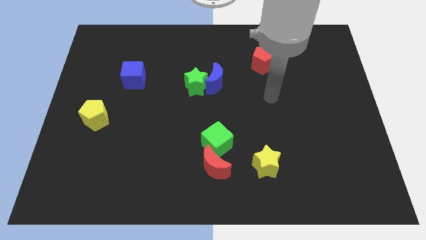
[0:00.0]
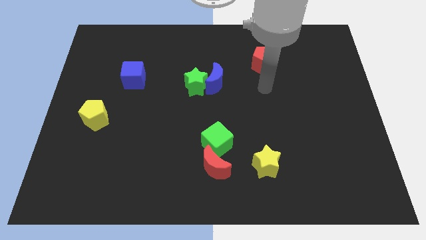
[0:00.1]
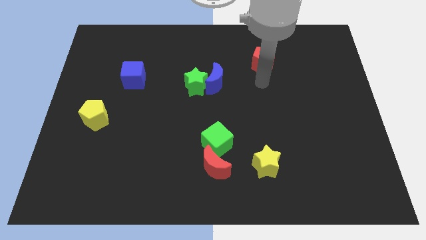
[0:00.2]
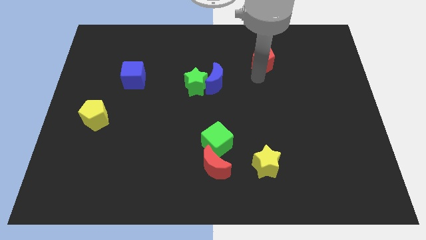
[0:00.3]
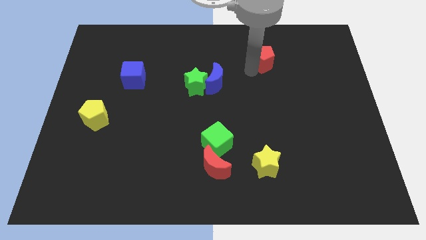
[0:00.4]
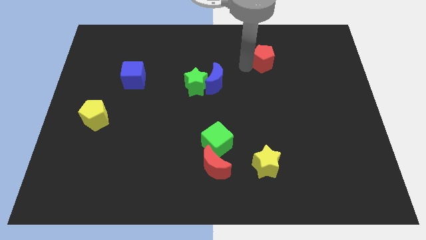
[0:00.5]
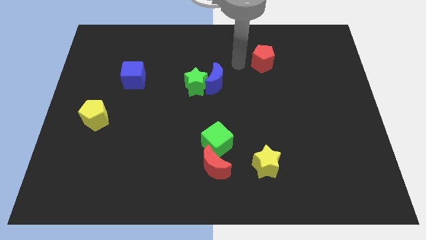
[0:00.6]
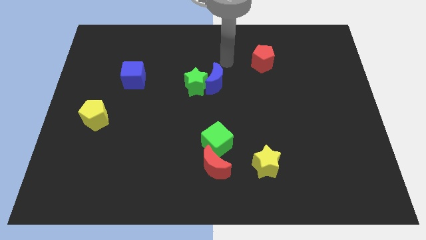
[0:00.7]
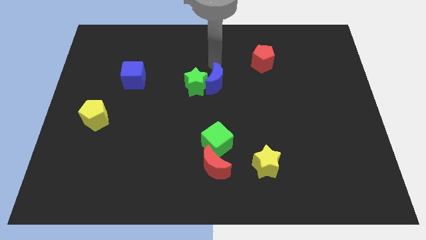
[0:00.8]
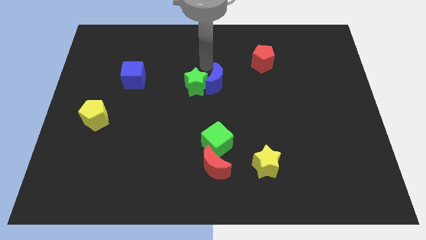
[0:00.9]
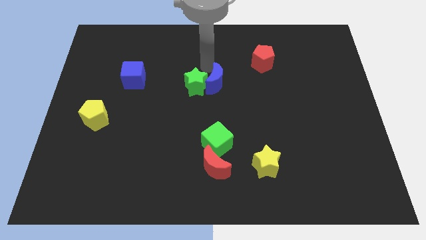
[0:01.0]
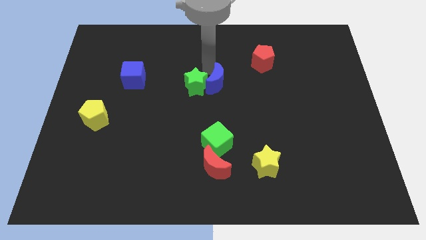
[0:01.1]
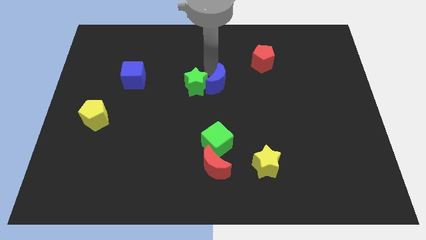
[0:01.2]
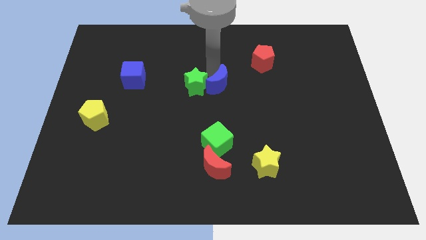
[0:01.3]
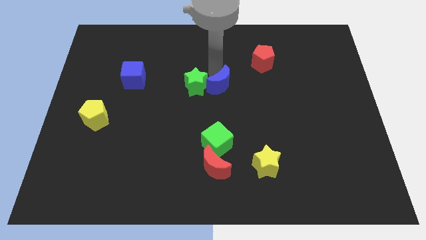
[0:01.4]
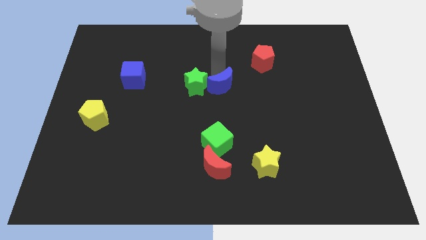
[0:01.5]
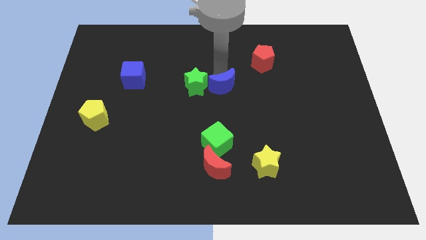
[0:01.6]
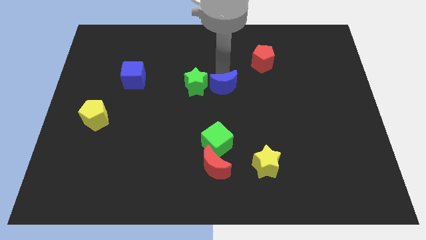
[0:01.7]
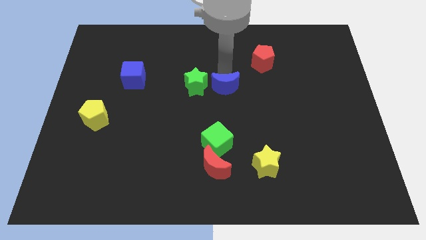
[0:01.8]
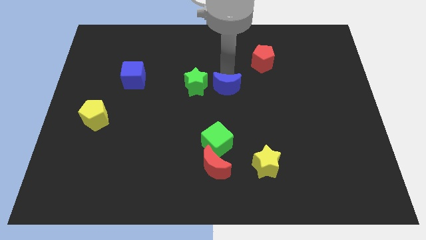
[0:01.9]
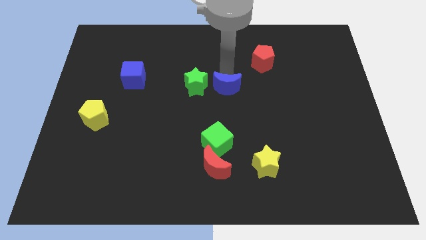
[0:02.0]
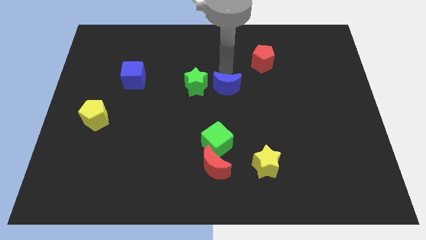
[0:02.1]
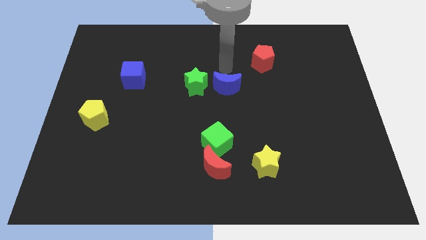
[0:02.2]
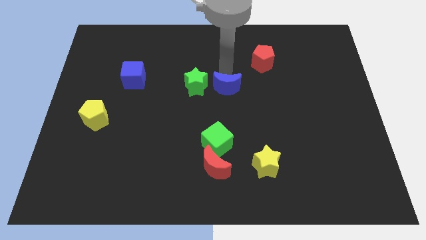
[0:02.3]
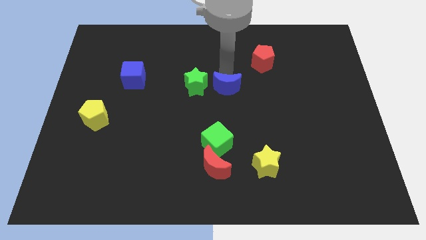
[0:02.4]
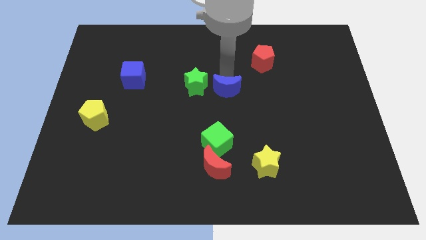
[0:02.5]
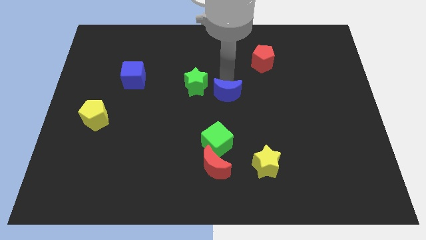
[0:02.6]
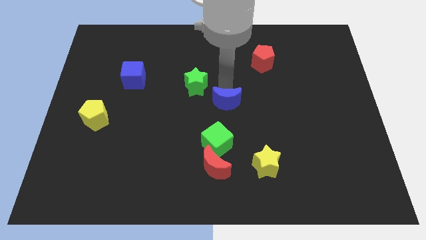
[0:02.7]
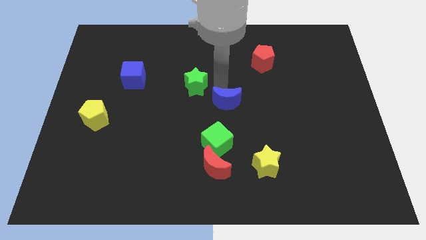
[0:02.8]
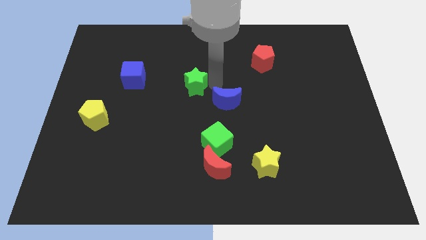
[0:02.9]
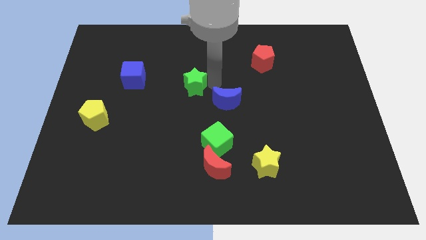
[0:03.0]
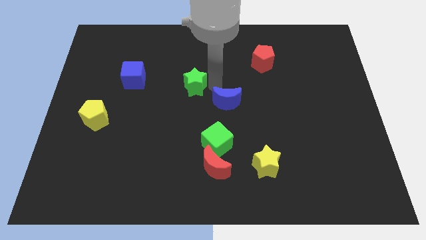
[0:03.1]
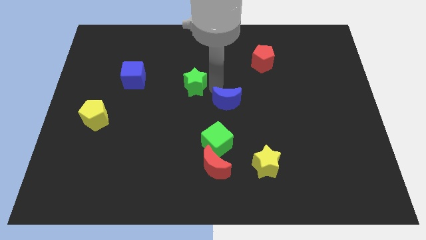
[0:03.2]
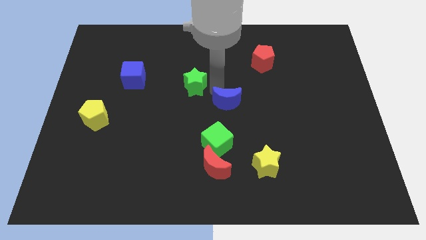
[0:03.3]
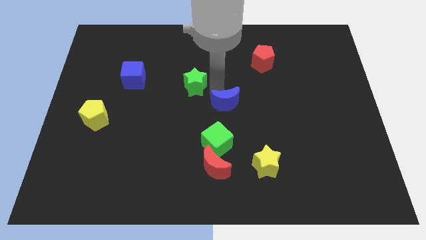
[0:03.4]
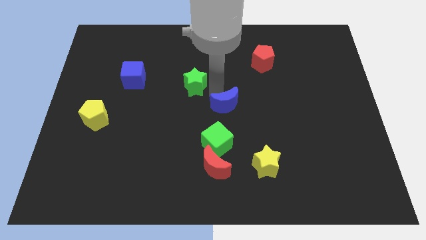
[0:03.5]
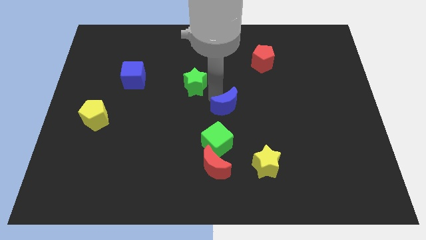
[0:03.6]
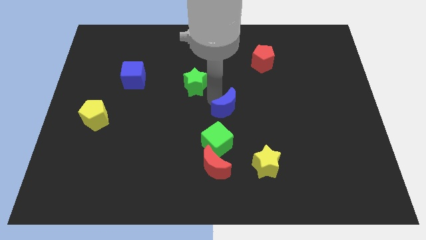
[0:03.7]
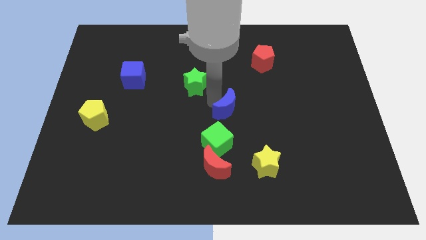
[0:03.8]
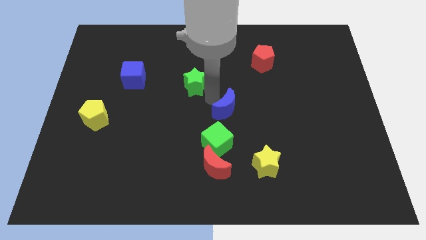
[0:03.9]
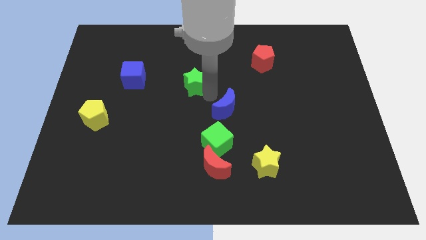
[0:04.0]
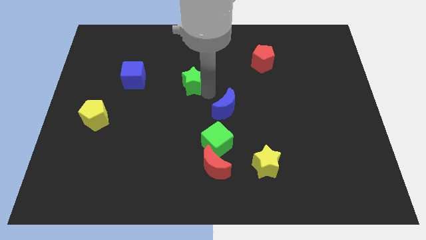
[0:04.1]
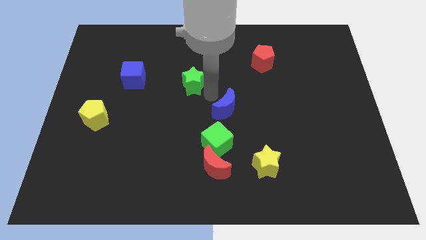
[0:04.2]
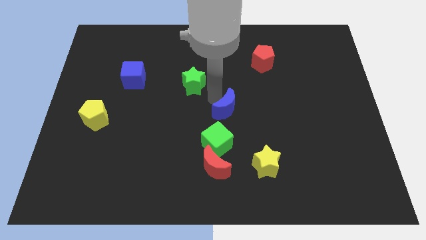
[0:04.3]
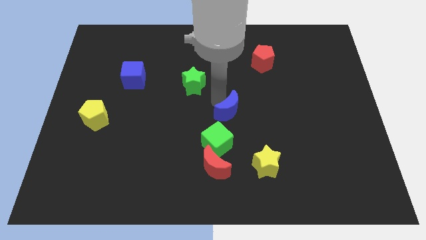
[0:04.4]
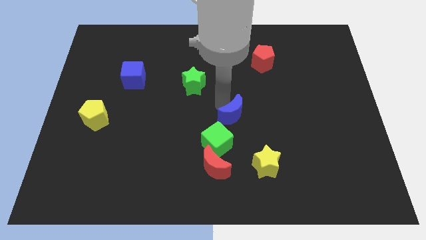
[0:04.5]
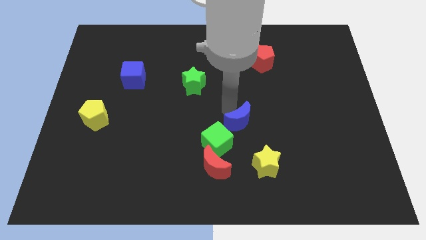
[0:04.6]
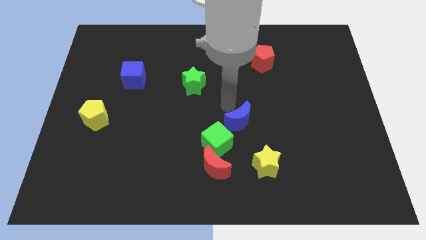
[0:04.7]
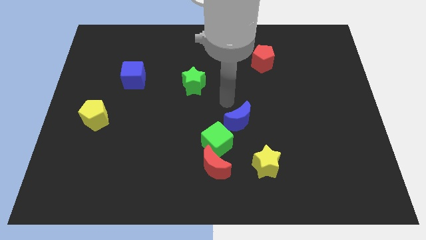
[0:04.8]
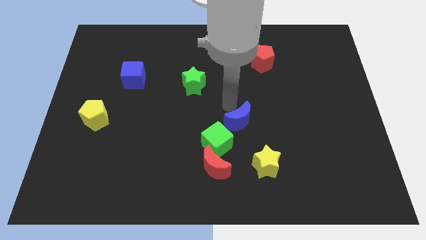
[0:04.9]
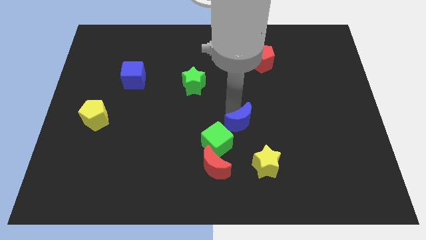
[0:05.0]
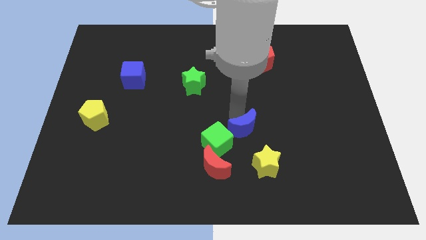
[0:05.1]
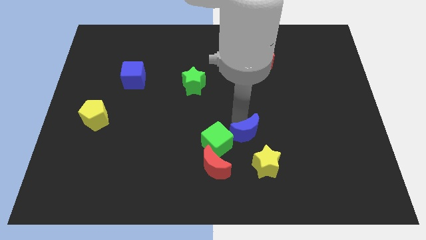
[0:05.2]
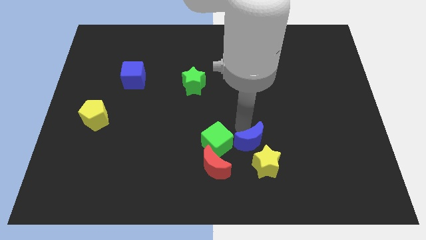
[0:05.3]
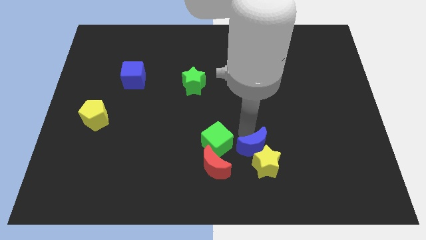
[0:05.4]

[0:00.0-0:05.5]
put the blue moon close to the yellow star

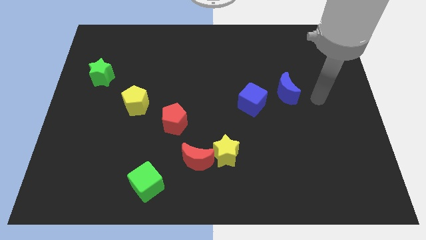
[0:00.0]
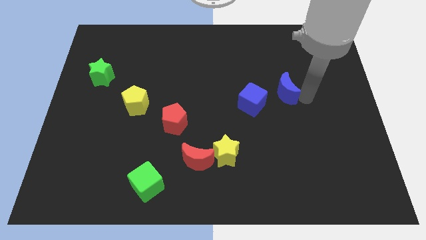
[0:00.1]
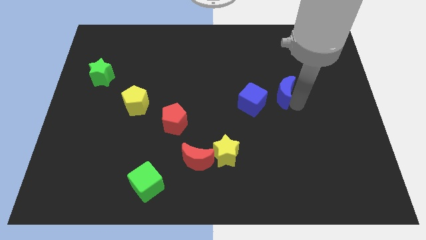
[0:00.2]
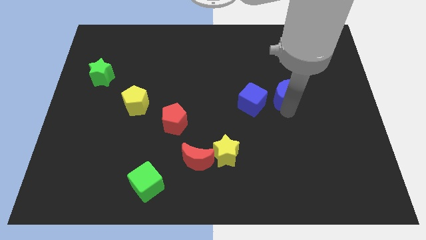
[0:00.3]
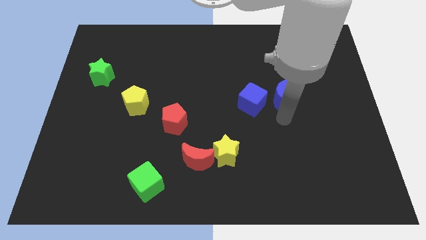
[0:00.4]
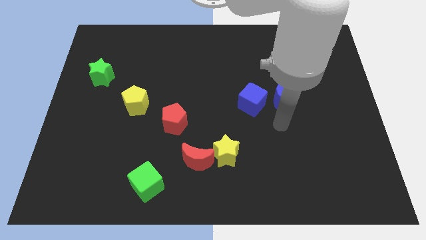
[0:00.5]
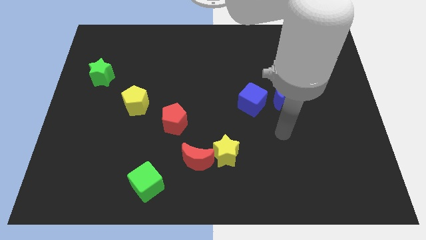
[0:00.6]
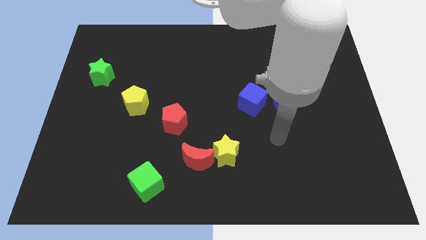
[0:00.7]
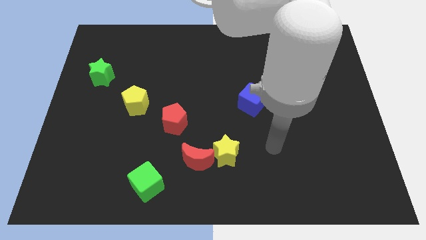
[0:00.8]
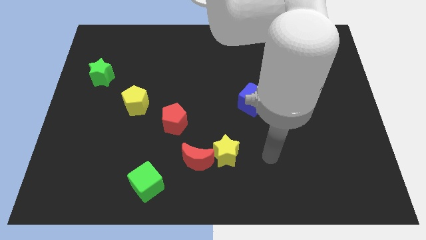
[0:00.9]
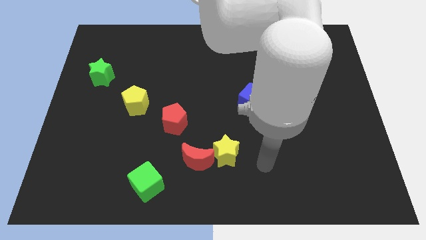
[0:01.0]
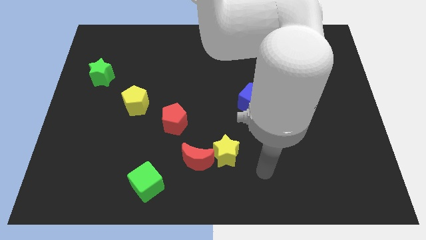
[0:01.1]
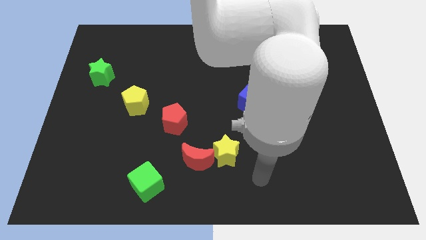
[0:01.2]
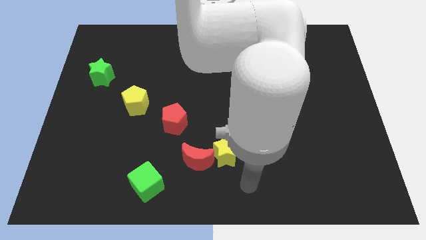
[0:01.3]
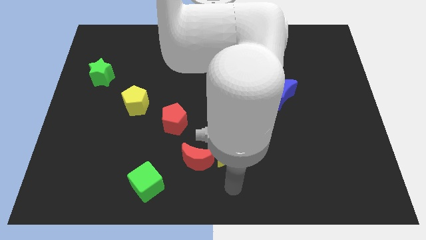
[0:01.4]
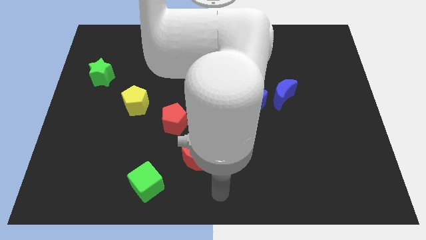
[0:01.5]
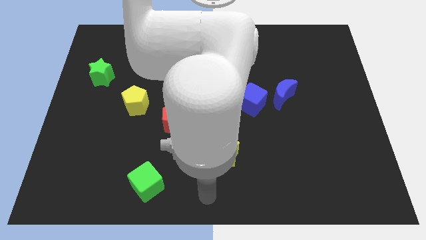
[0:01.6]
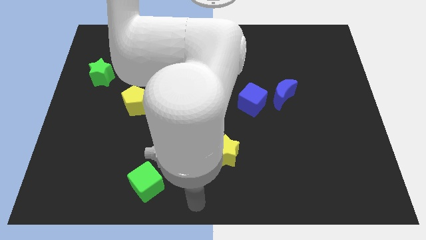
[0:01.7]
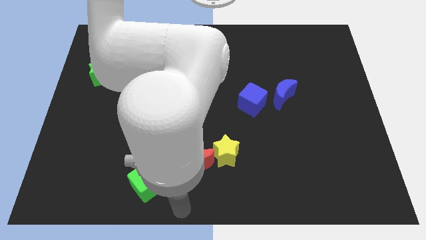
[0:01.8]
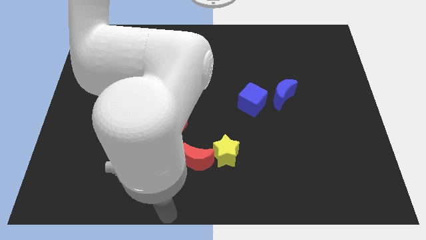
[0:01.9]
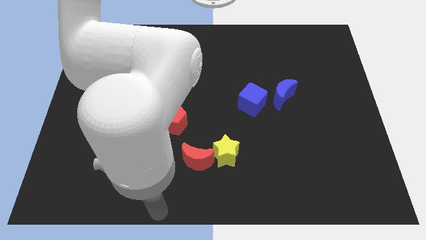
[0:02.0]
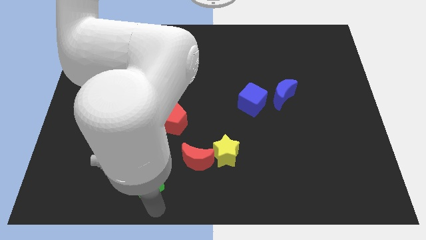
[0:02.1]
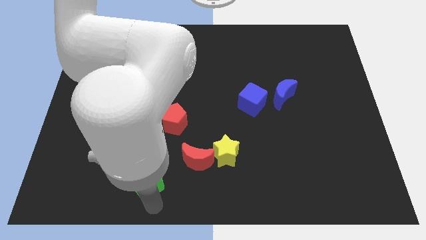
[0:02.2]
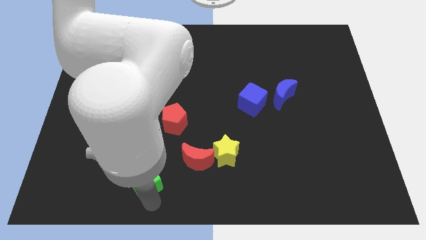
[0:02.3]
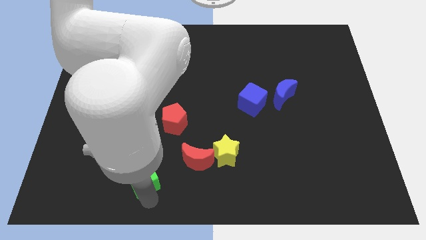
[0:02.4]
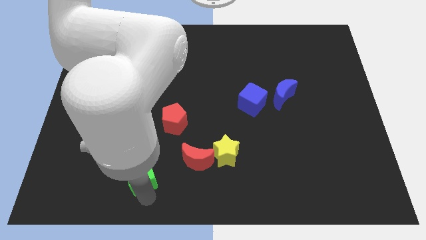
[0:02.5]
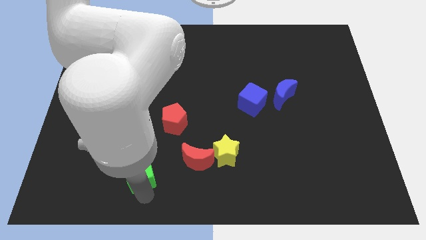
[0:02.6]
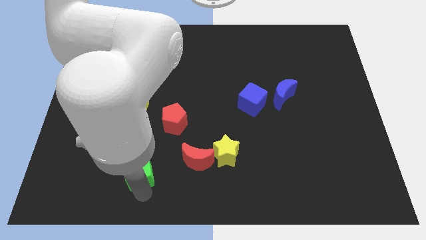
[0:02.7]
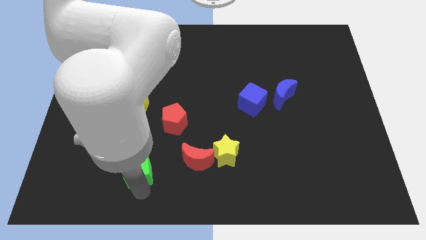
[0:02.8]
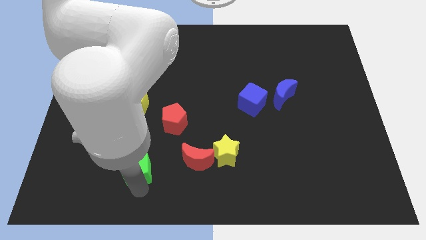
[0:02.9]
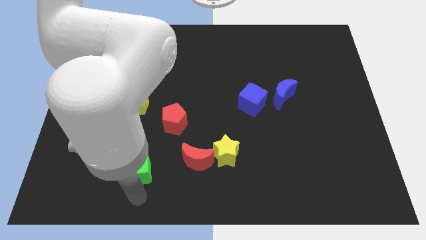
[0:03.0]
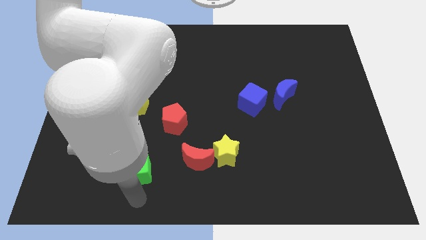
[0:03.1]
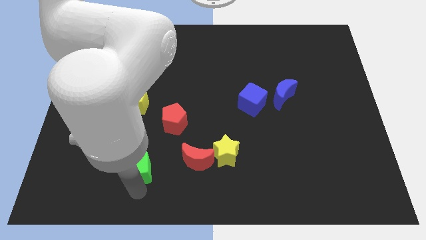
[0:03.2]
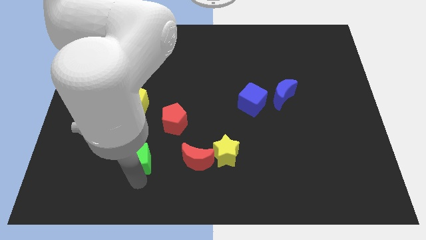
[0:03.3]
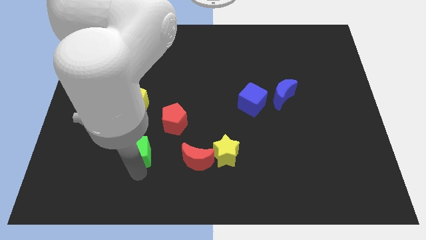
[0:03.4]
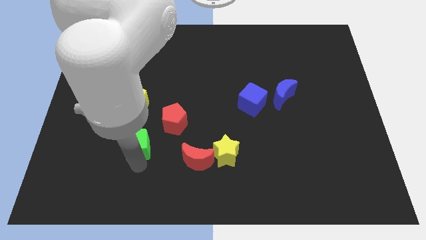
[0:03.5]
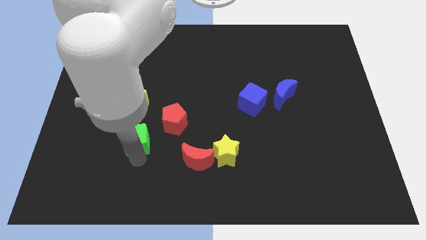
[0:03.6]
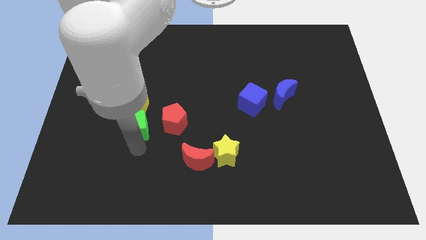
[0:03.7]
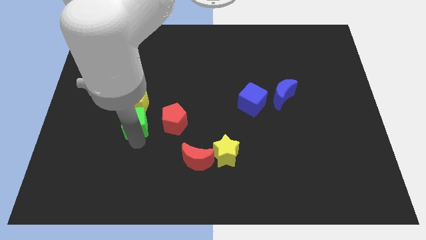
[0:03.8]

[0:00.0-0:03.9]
move the green cube close to the yellow pentagon
